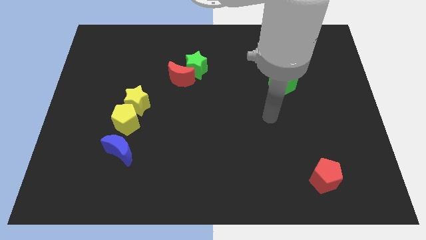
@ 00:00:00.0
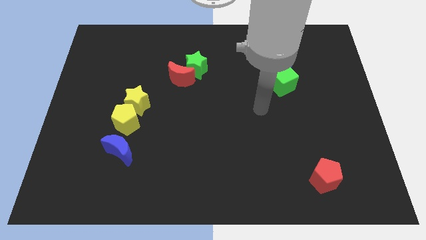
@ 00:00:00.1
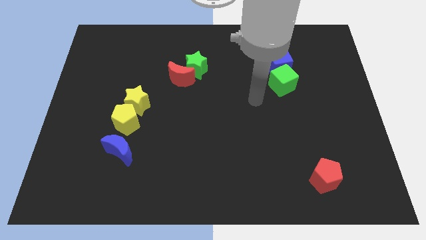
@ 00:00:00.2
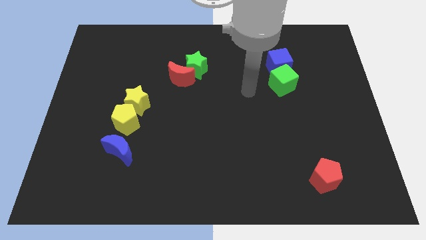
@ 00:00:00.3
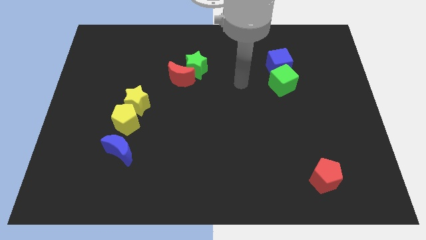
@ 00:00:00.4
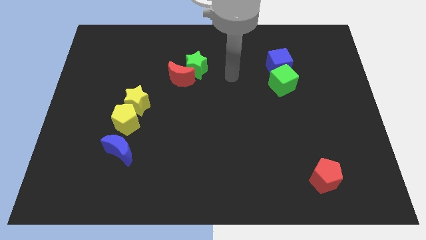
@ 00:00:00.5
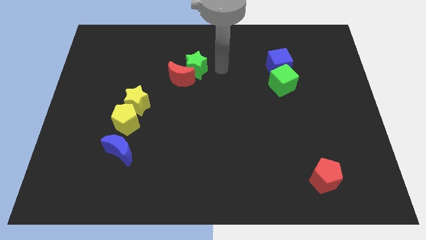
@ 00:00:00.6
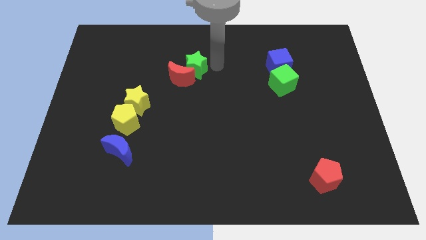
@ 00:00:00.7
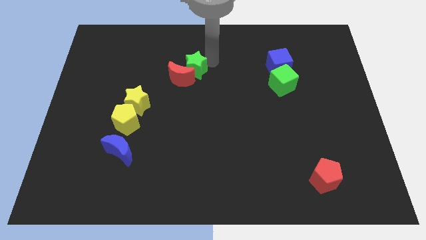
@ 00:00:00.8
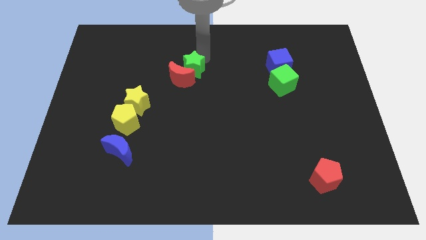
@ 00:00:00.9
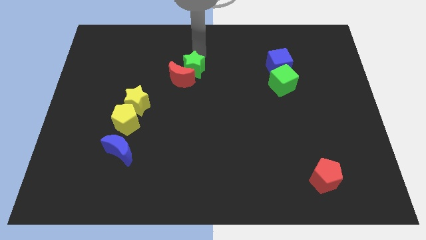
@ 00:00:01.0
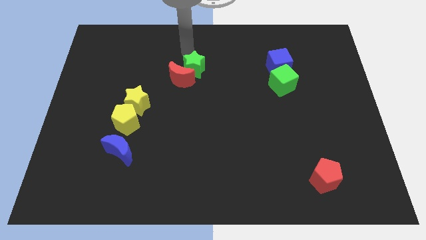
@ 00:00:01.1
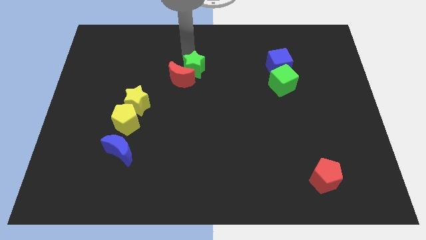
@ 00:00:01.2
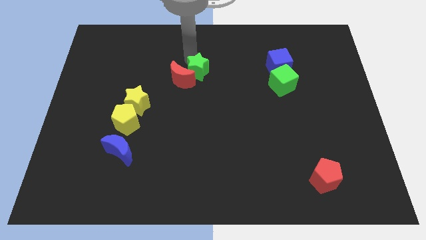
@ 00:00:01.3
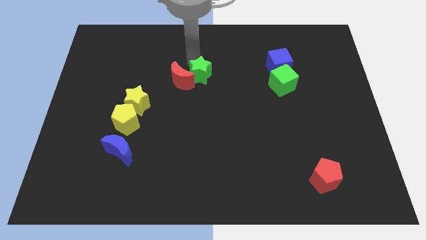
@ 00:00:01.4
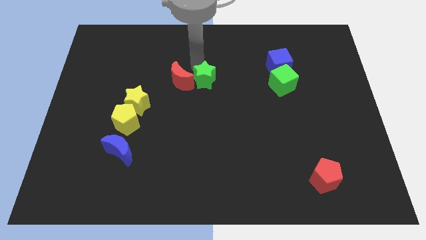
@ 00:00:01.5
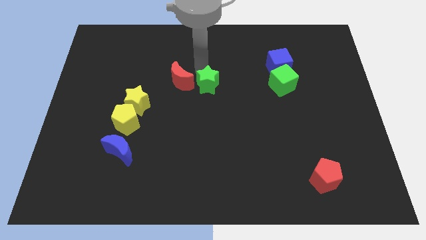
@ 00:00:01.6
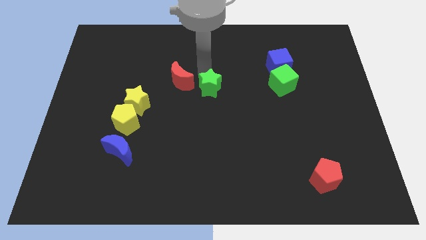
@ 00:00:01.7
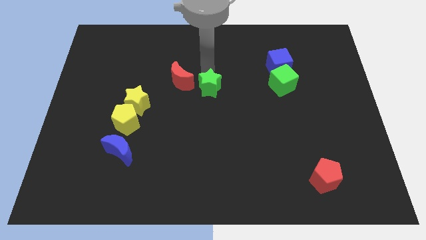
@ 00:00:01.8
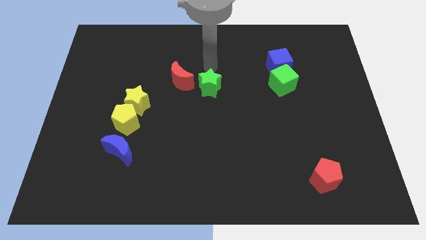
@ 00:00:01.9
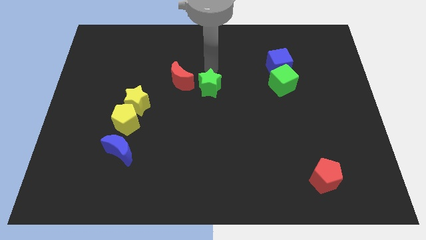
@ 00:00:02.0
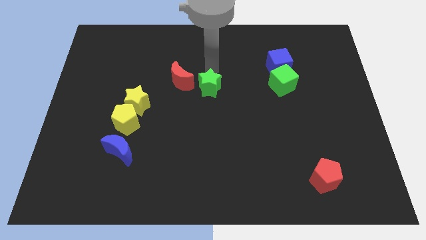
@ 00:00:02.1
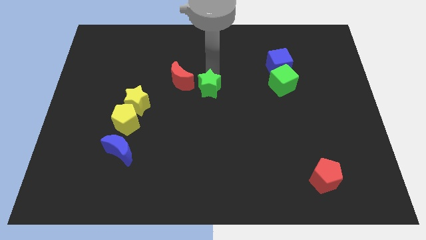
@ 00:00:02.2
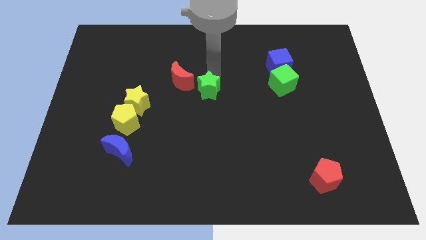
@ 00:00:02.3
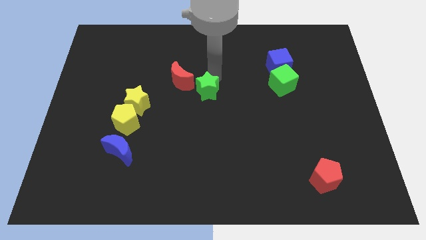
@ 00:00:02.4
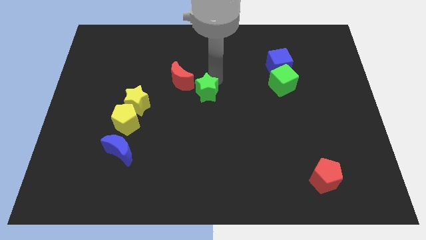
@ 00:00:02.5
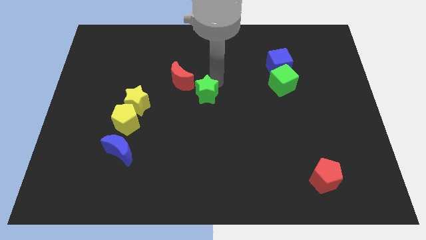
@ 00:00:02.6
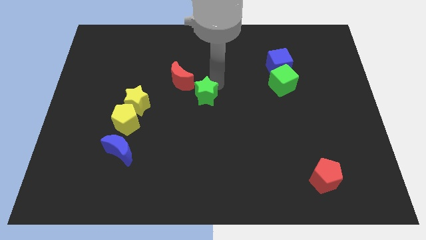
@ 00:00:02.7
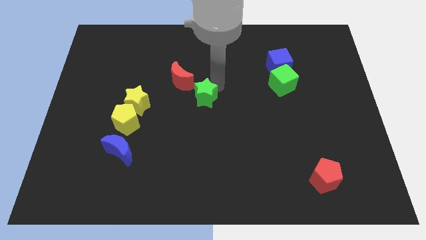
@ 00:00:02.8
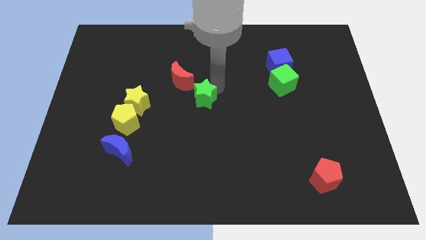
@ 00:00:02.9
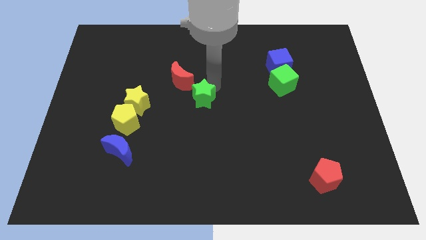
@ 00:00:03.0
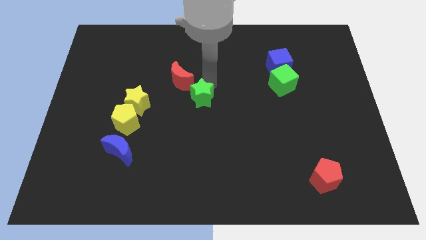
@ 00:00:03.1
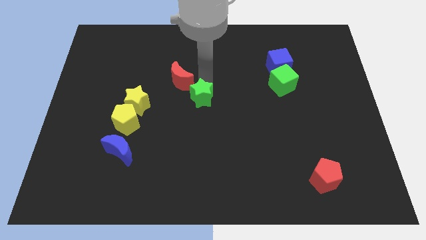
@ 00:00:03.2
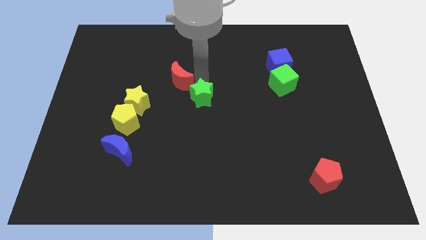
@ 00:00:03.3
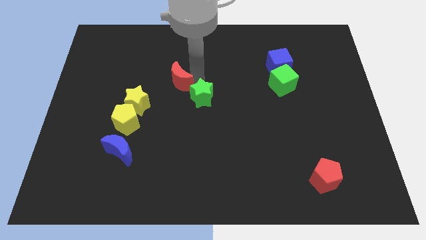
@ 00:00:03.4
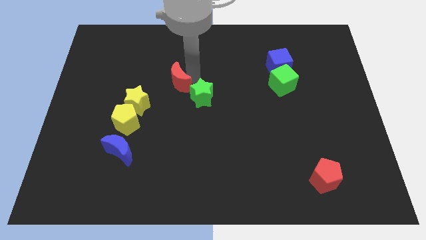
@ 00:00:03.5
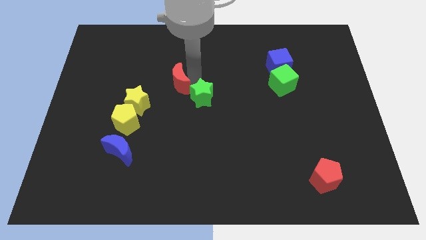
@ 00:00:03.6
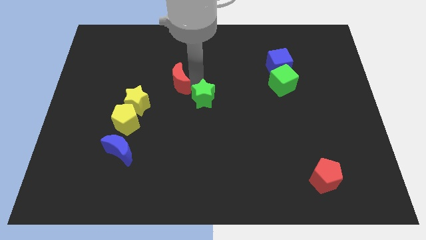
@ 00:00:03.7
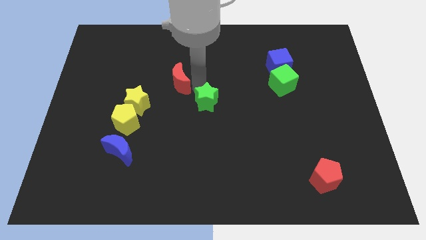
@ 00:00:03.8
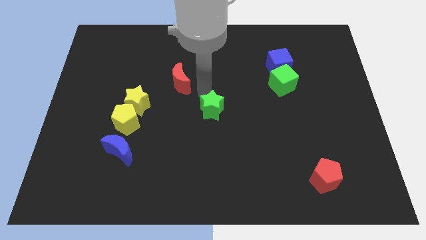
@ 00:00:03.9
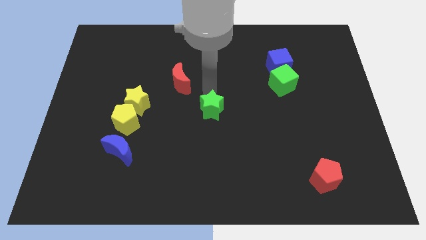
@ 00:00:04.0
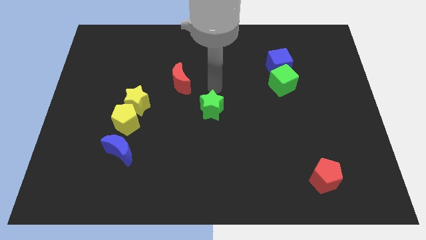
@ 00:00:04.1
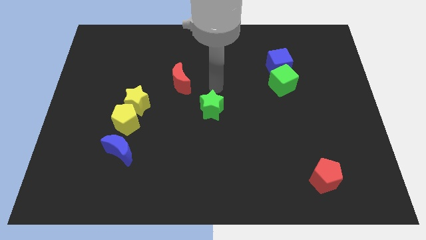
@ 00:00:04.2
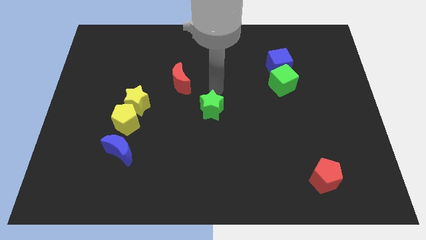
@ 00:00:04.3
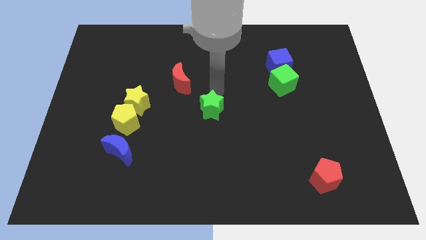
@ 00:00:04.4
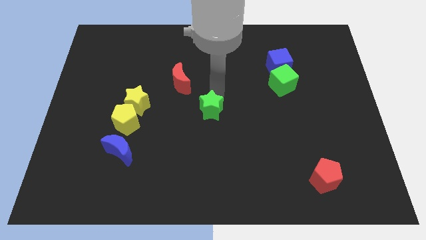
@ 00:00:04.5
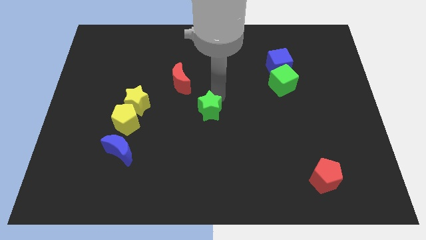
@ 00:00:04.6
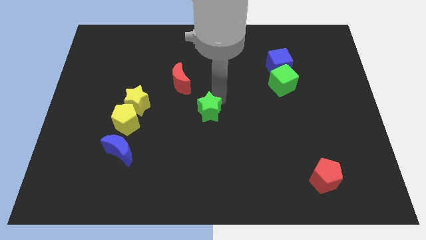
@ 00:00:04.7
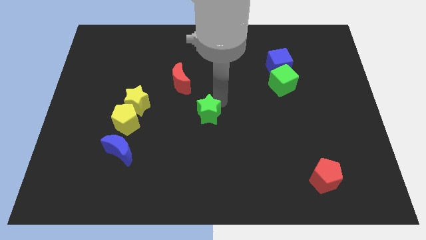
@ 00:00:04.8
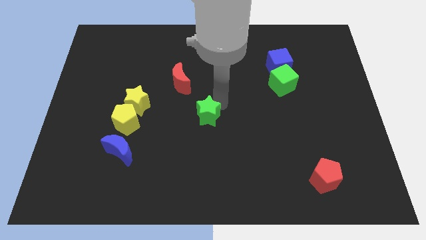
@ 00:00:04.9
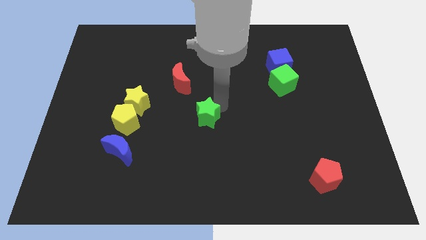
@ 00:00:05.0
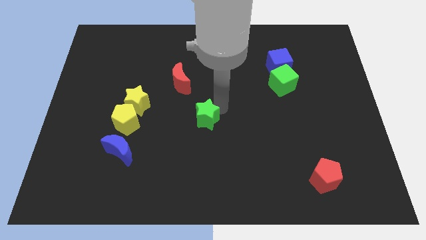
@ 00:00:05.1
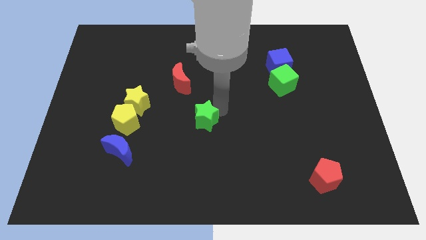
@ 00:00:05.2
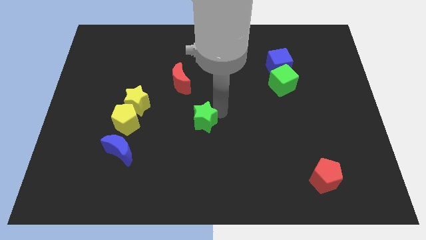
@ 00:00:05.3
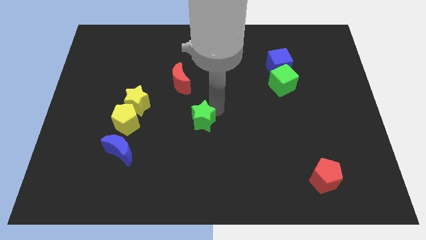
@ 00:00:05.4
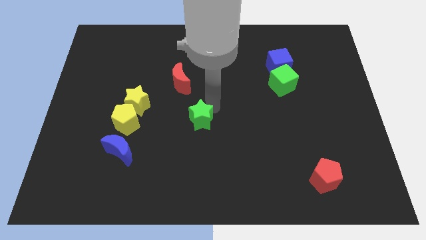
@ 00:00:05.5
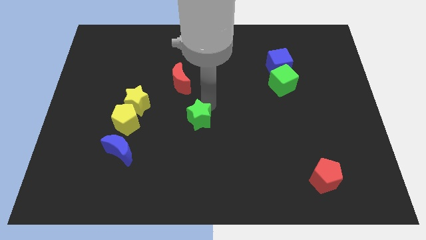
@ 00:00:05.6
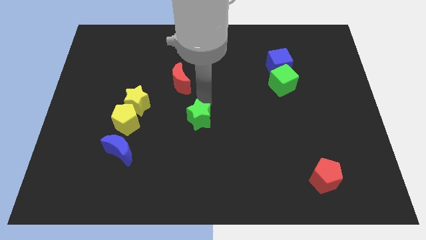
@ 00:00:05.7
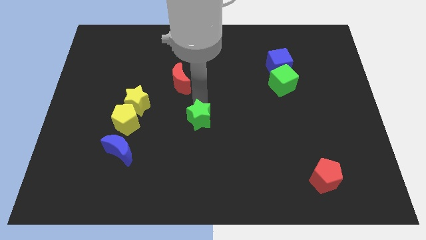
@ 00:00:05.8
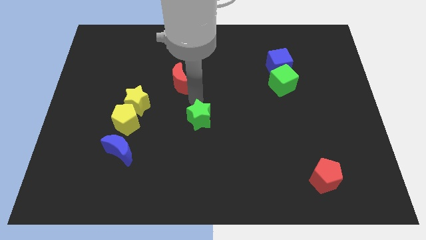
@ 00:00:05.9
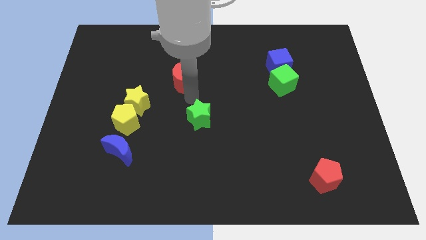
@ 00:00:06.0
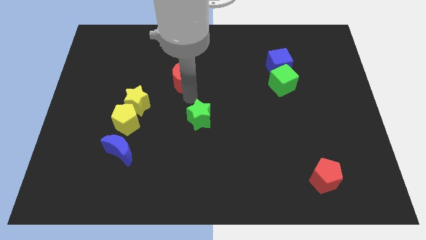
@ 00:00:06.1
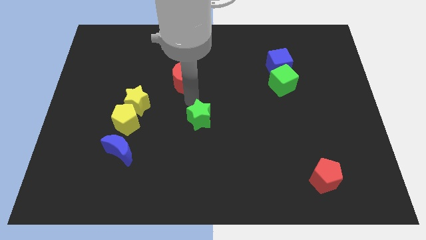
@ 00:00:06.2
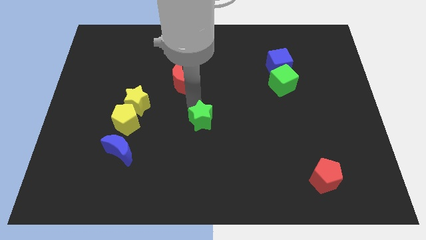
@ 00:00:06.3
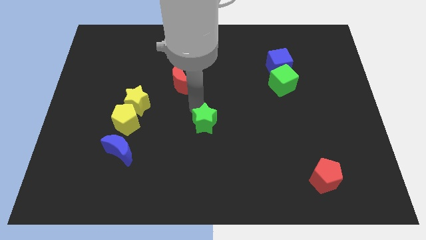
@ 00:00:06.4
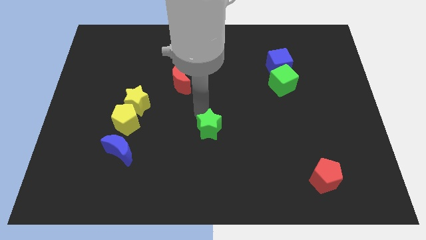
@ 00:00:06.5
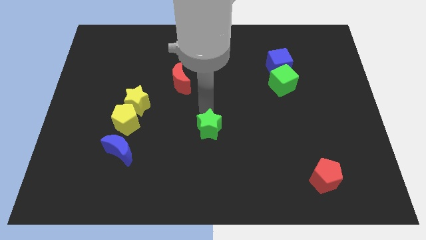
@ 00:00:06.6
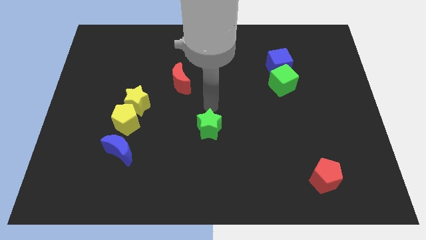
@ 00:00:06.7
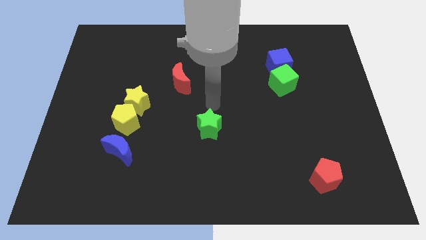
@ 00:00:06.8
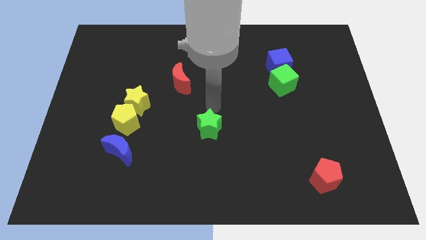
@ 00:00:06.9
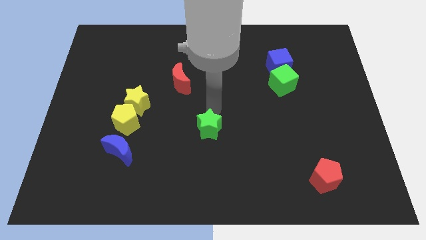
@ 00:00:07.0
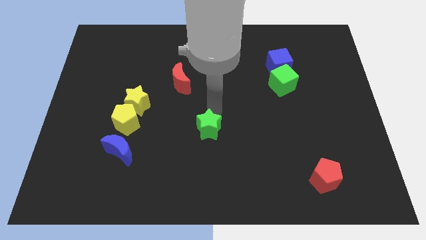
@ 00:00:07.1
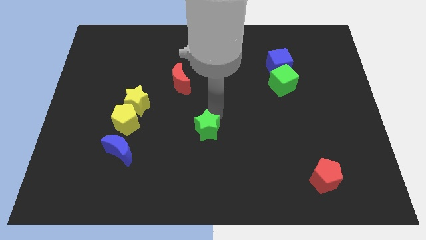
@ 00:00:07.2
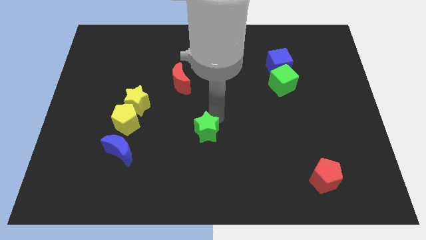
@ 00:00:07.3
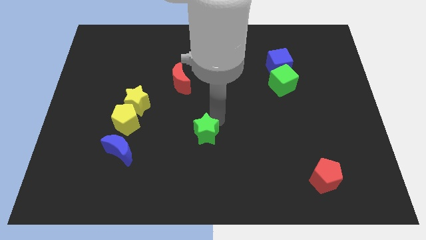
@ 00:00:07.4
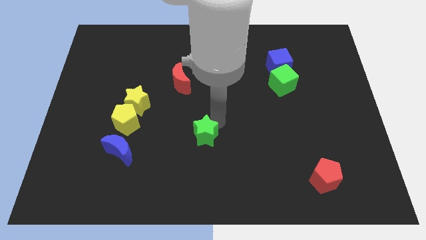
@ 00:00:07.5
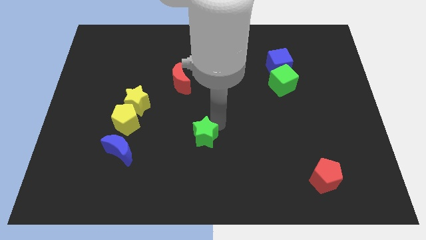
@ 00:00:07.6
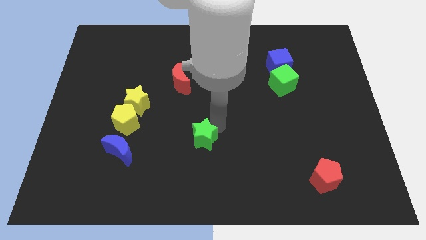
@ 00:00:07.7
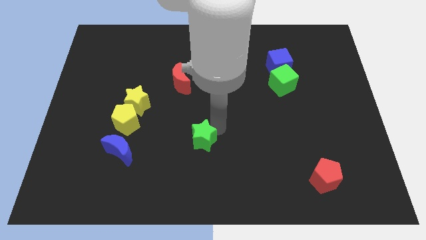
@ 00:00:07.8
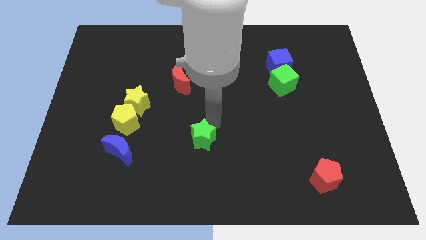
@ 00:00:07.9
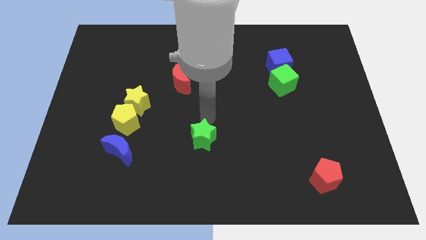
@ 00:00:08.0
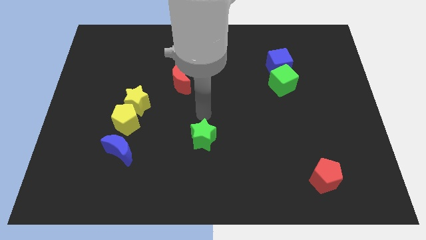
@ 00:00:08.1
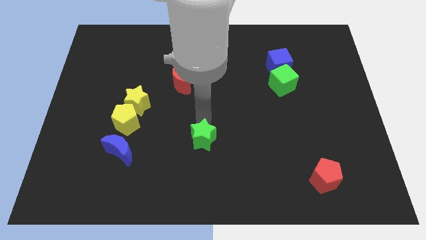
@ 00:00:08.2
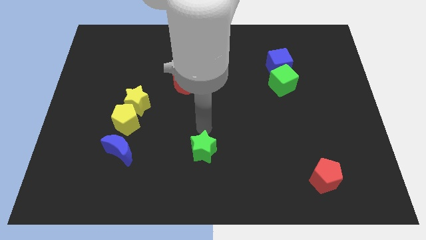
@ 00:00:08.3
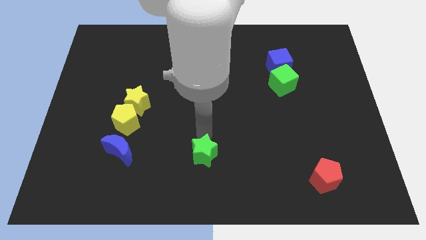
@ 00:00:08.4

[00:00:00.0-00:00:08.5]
put the green star to the bottom
